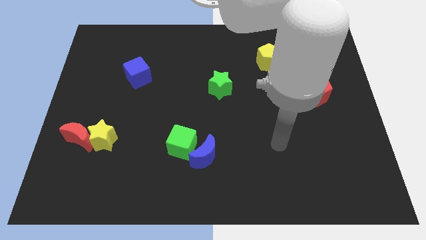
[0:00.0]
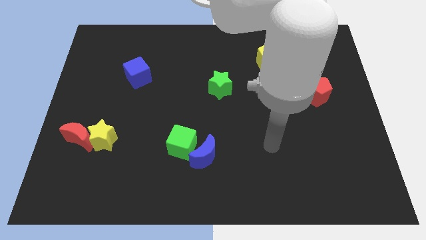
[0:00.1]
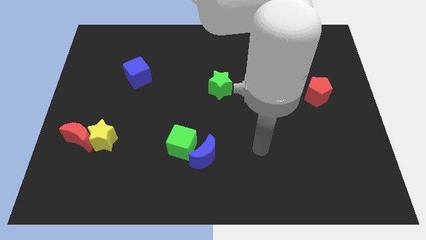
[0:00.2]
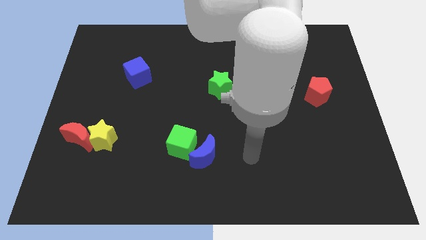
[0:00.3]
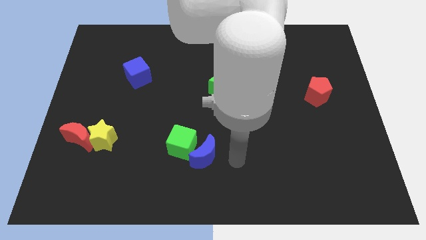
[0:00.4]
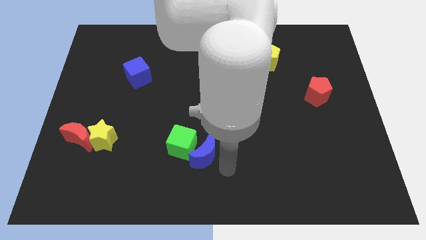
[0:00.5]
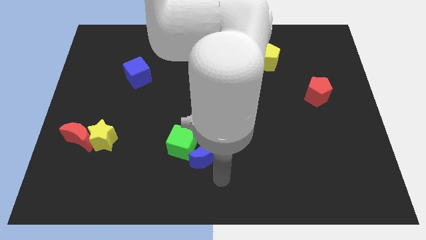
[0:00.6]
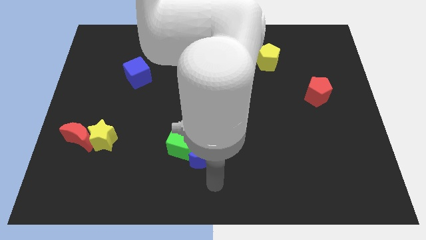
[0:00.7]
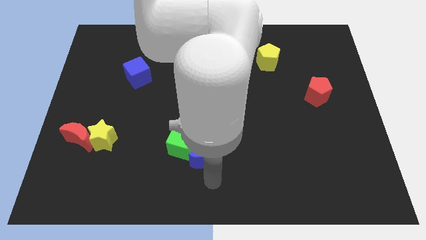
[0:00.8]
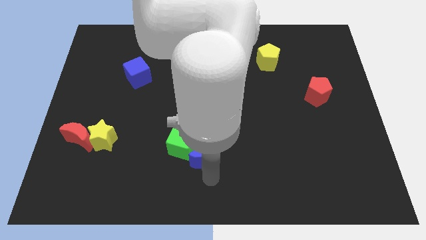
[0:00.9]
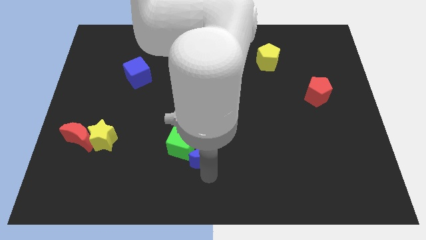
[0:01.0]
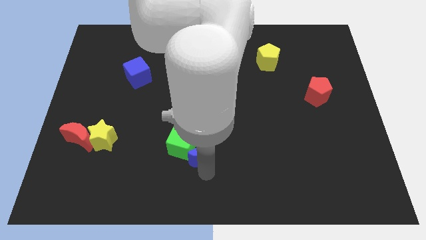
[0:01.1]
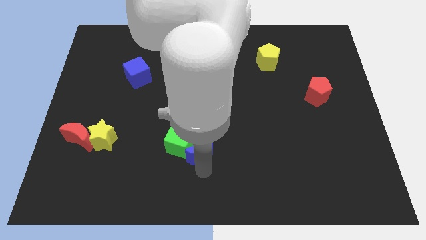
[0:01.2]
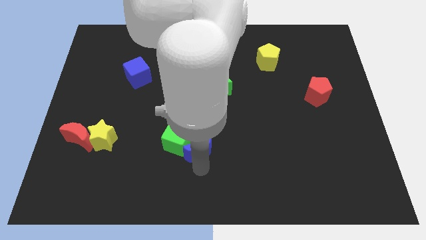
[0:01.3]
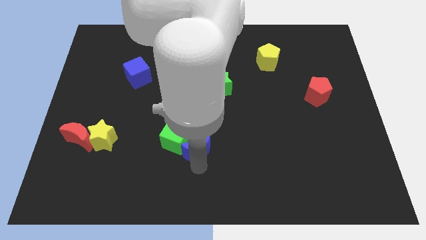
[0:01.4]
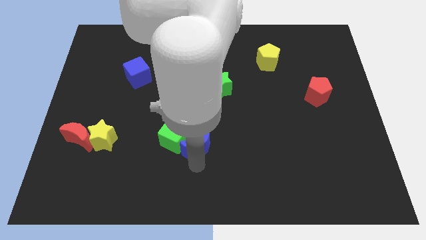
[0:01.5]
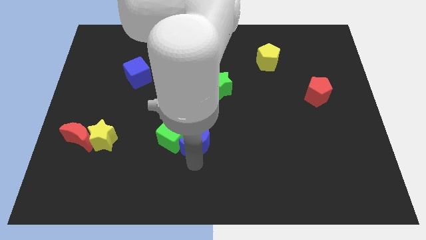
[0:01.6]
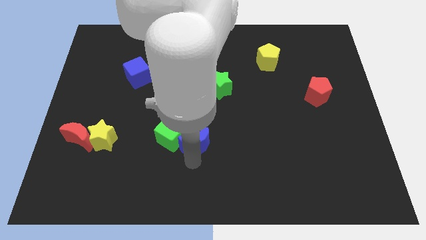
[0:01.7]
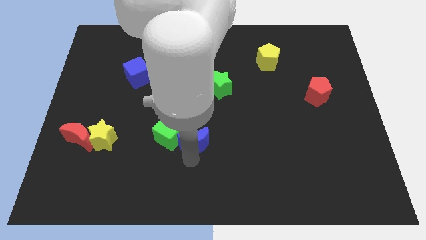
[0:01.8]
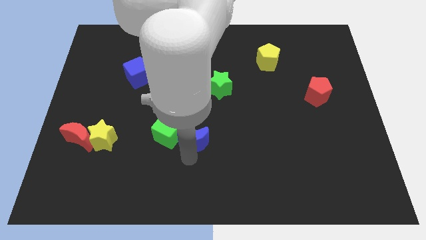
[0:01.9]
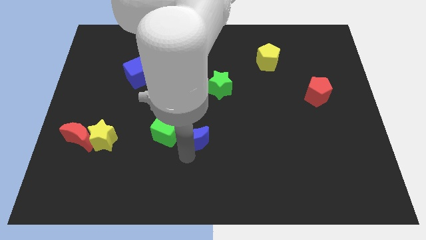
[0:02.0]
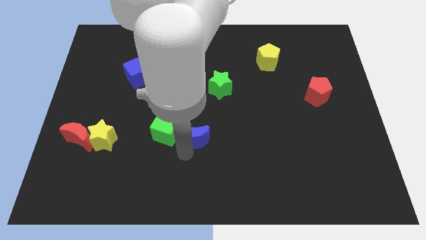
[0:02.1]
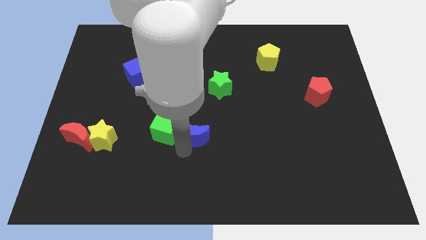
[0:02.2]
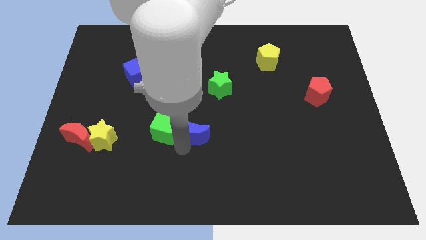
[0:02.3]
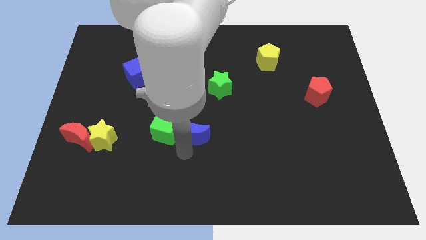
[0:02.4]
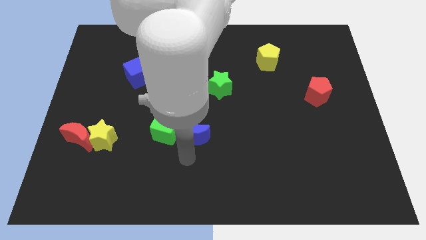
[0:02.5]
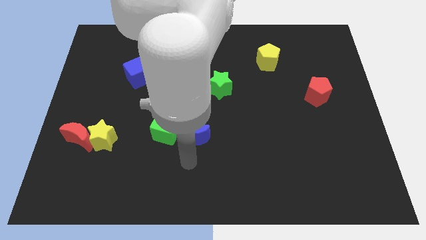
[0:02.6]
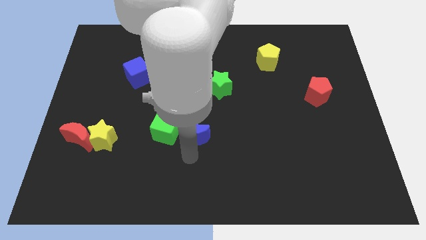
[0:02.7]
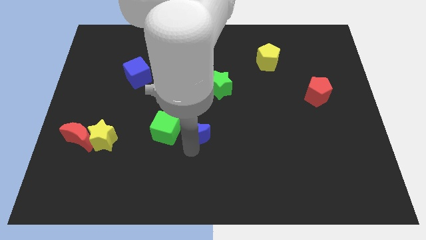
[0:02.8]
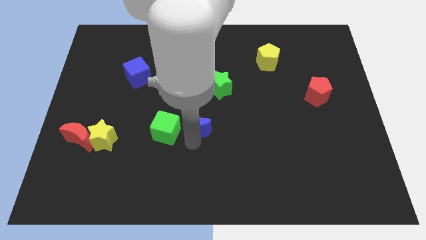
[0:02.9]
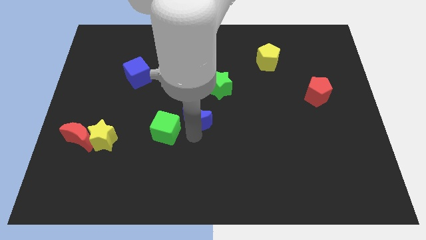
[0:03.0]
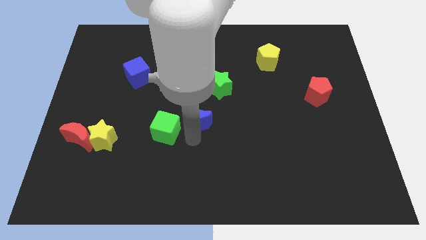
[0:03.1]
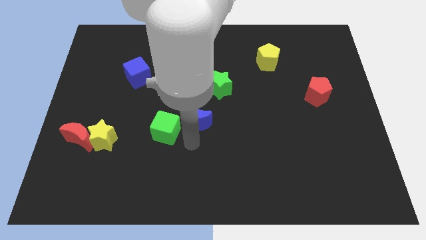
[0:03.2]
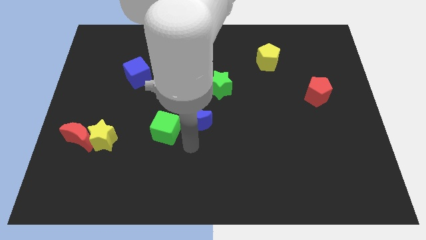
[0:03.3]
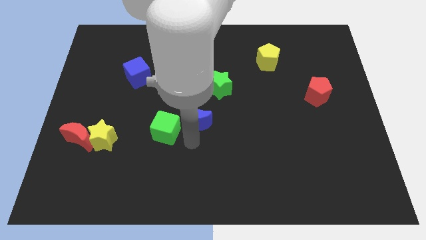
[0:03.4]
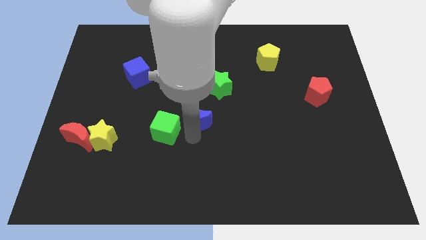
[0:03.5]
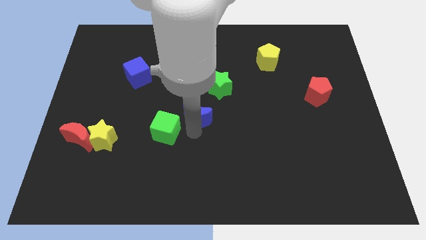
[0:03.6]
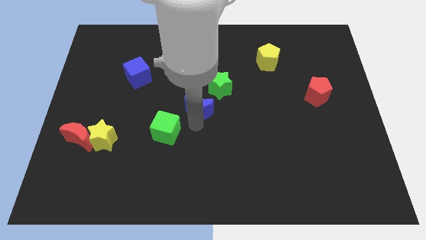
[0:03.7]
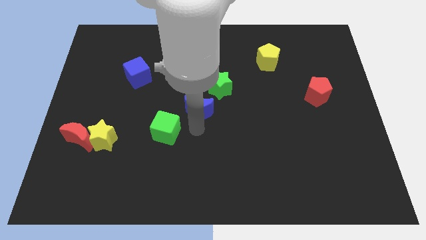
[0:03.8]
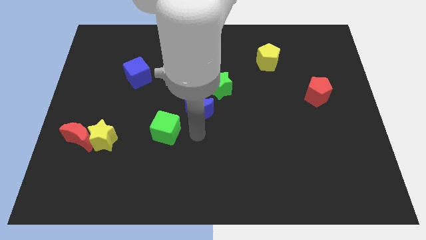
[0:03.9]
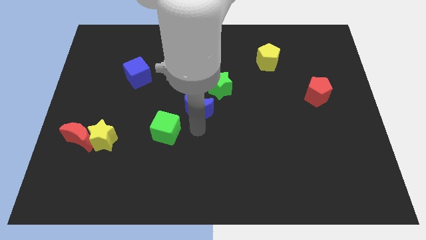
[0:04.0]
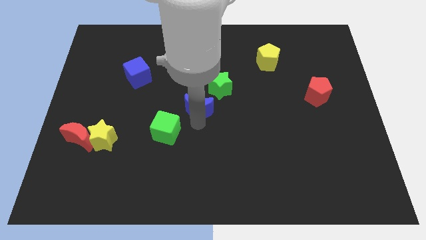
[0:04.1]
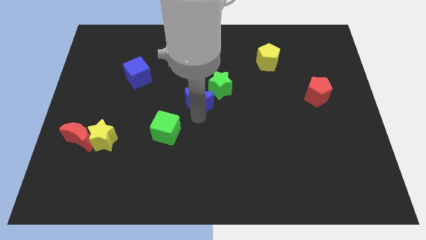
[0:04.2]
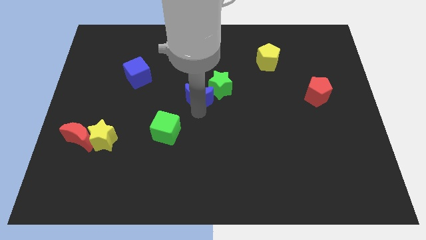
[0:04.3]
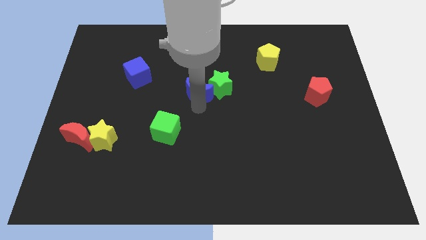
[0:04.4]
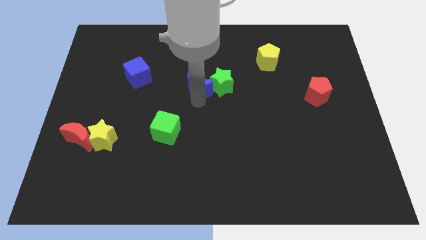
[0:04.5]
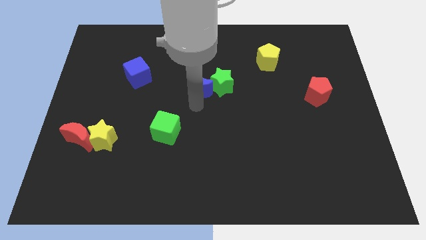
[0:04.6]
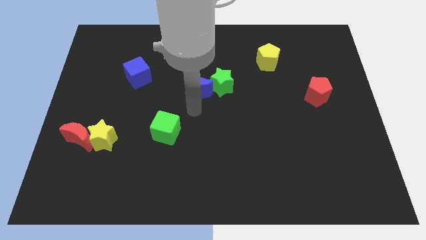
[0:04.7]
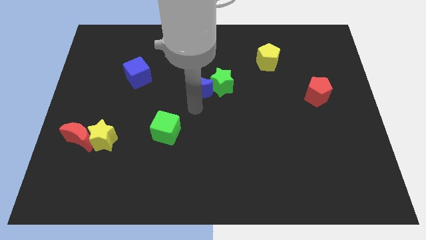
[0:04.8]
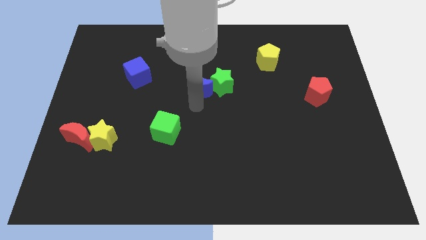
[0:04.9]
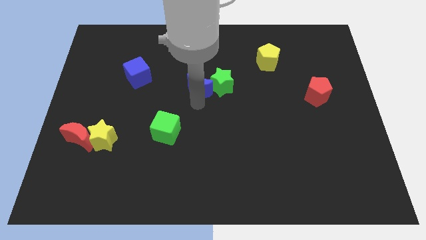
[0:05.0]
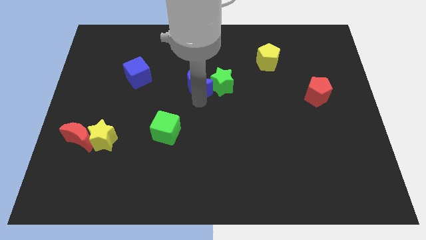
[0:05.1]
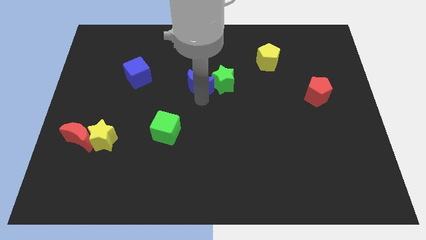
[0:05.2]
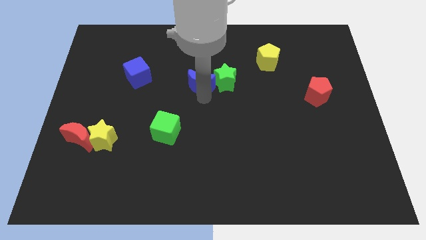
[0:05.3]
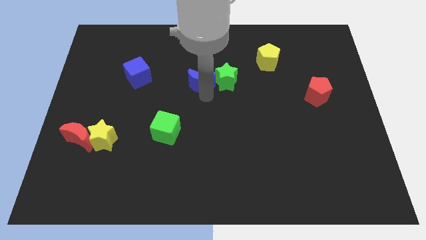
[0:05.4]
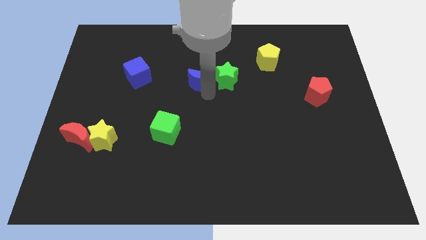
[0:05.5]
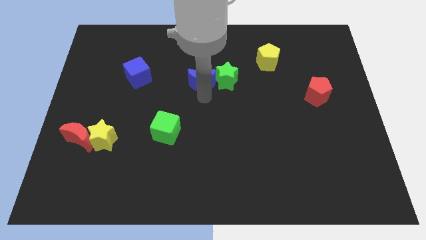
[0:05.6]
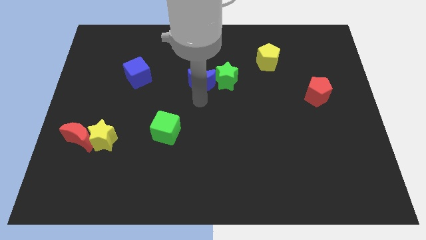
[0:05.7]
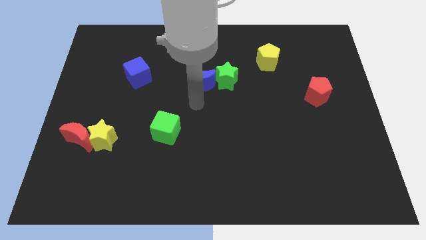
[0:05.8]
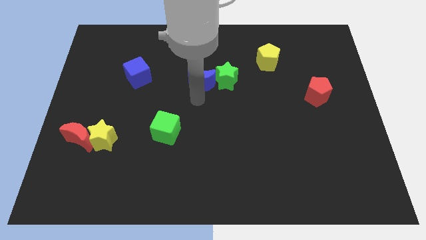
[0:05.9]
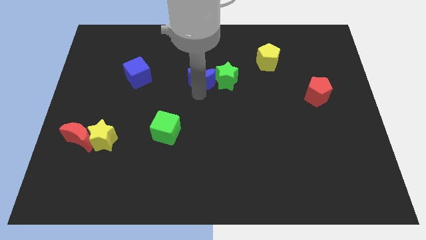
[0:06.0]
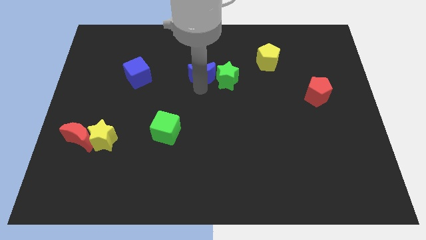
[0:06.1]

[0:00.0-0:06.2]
move the blue moon to the top left of the green star

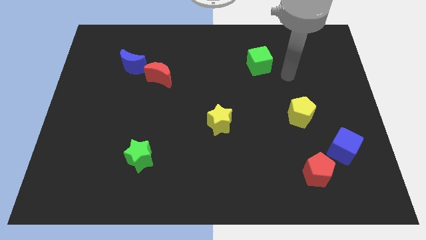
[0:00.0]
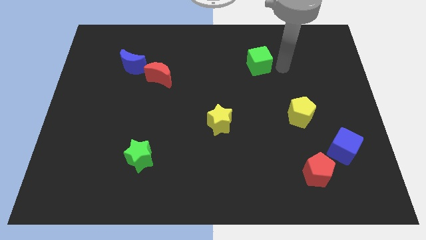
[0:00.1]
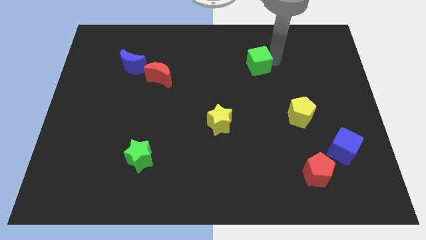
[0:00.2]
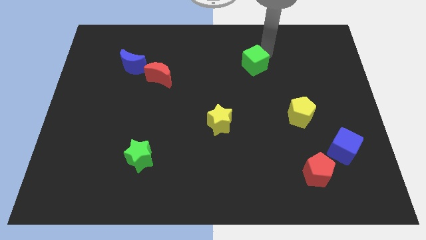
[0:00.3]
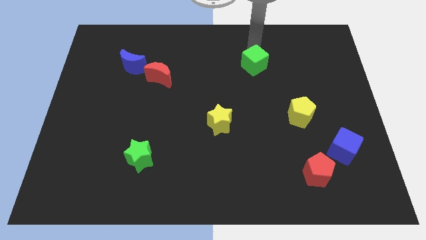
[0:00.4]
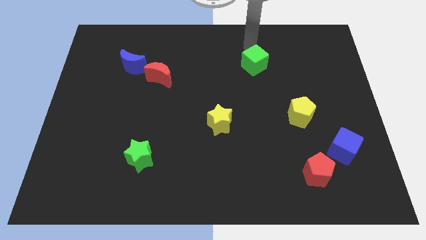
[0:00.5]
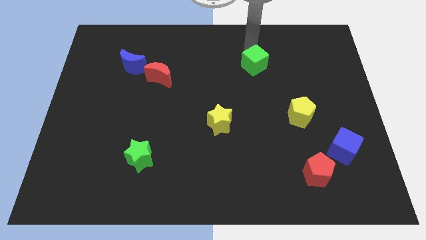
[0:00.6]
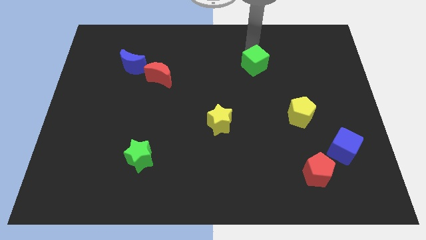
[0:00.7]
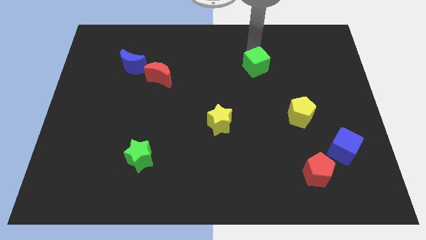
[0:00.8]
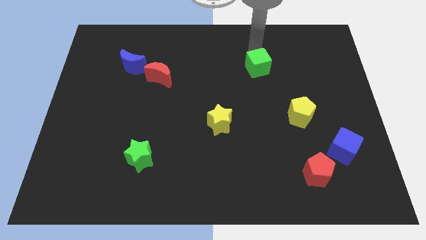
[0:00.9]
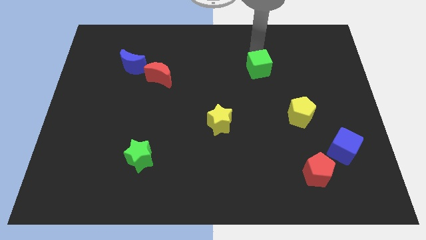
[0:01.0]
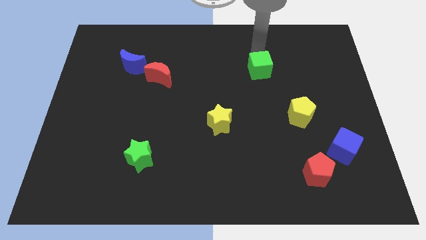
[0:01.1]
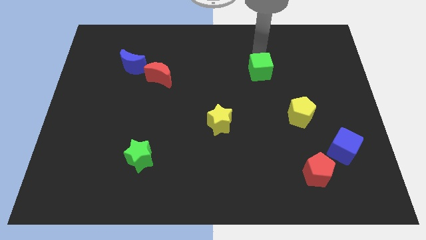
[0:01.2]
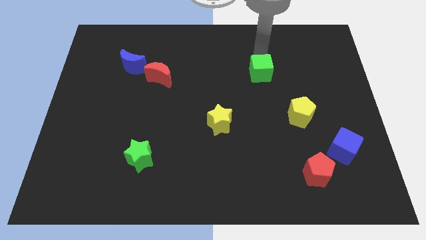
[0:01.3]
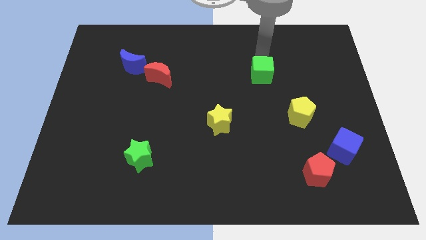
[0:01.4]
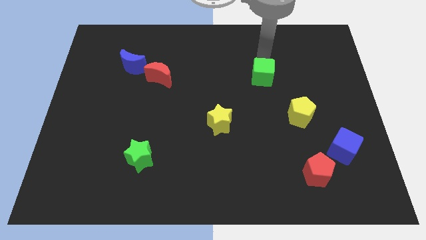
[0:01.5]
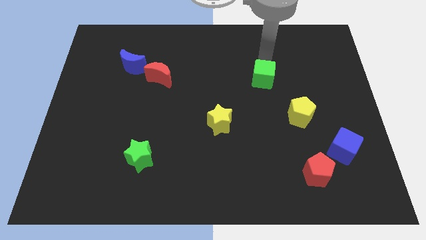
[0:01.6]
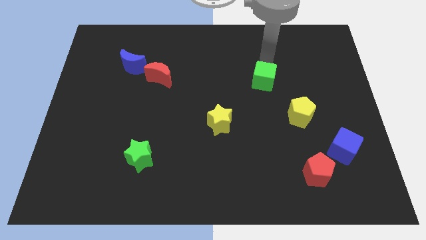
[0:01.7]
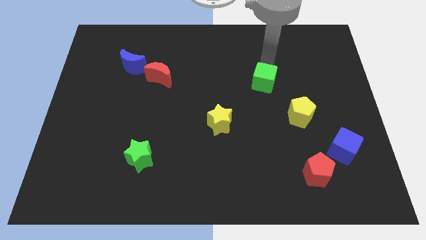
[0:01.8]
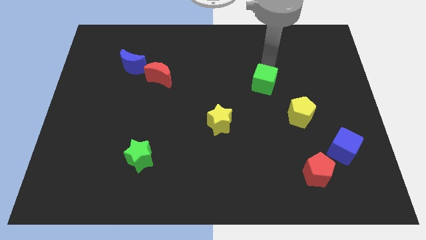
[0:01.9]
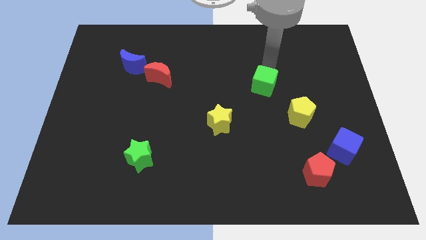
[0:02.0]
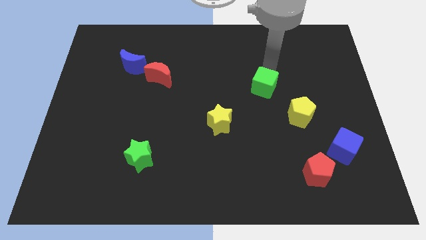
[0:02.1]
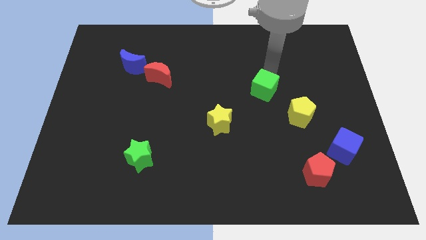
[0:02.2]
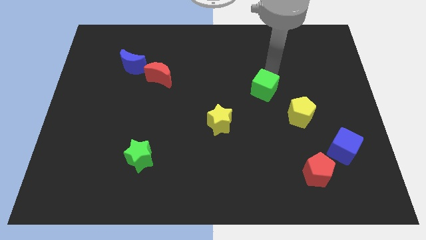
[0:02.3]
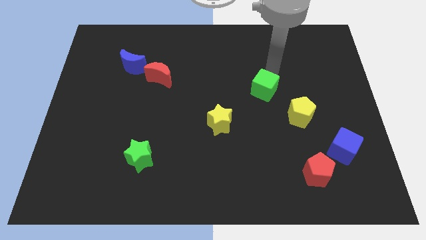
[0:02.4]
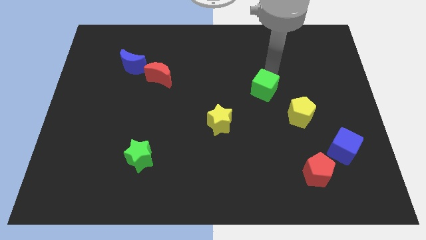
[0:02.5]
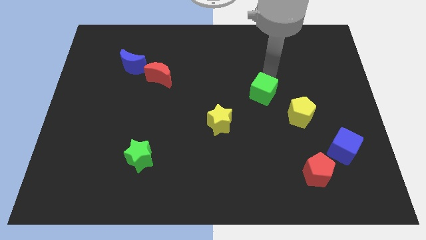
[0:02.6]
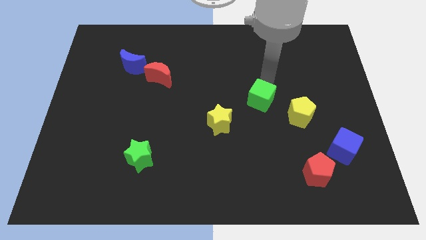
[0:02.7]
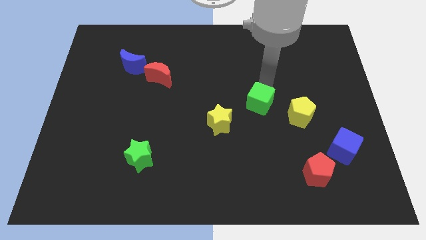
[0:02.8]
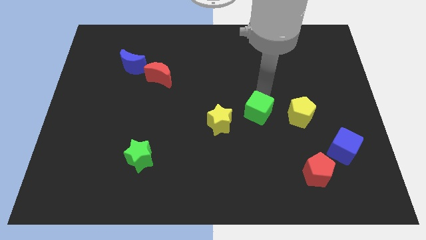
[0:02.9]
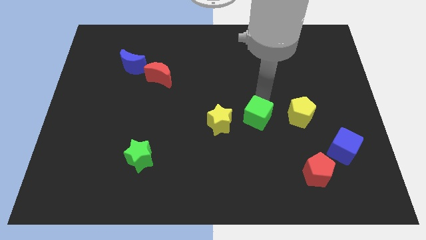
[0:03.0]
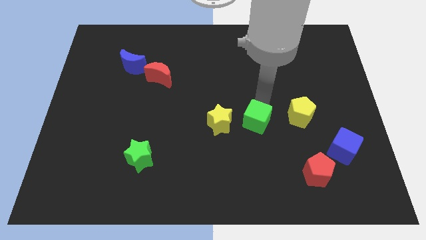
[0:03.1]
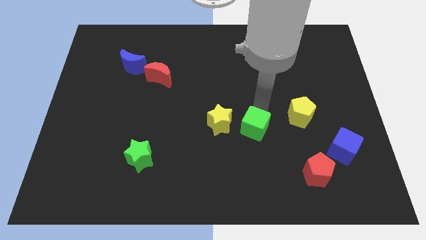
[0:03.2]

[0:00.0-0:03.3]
put the green cube to the bottom right of the yellow star
